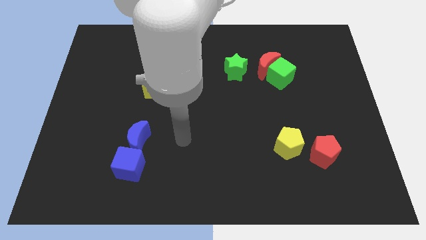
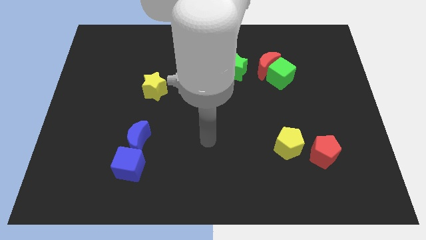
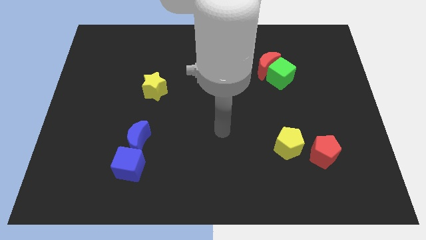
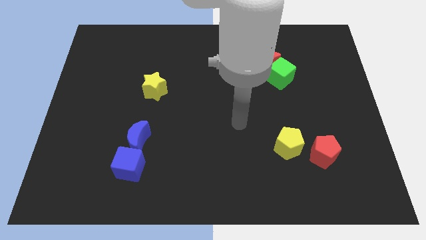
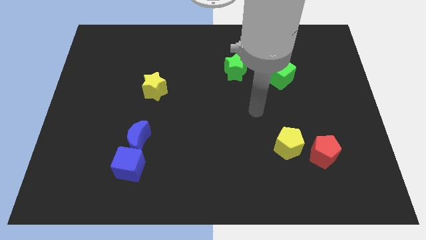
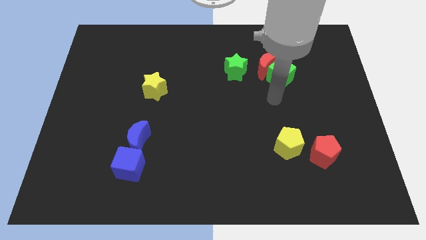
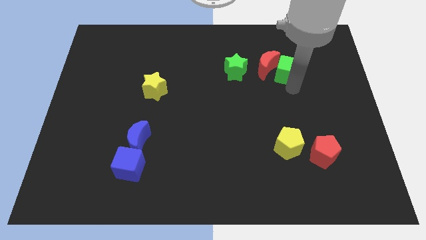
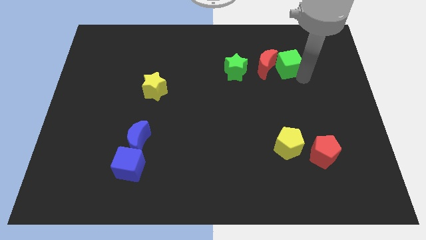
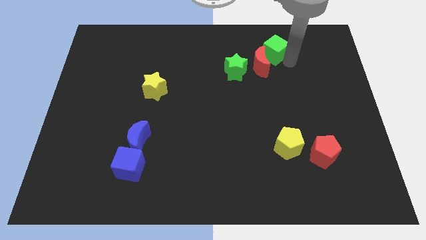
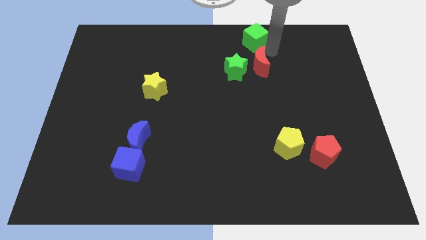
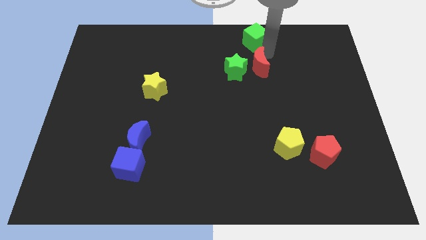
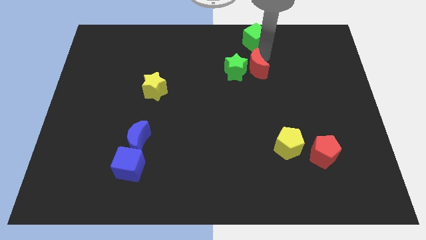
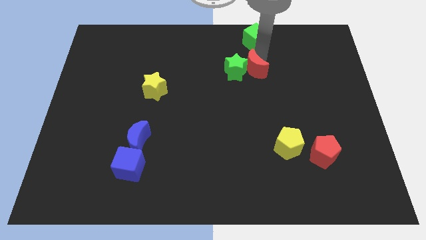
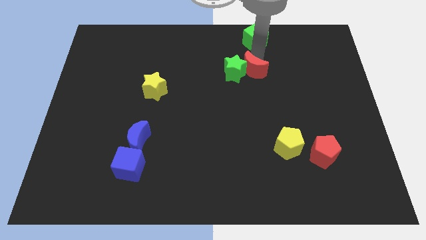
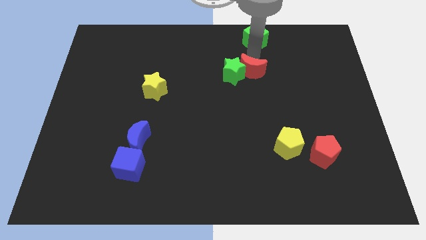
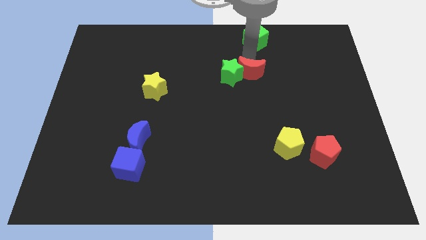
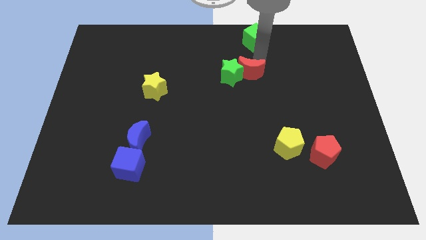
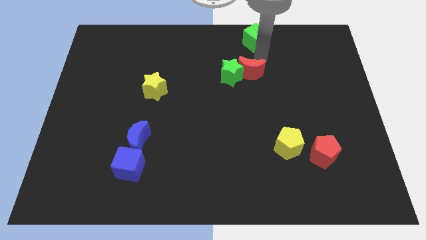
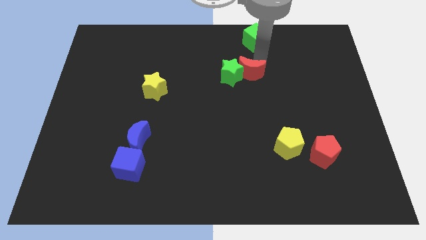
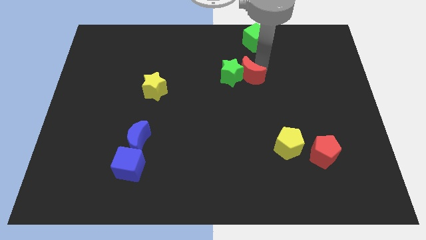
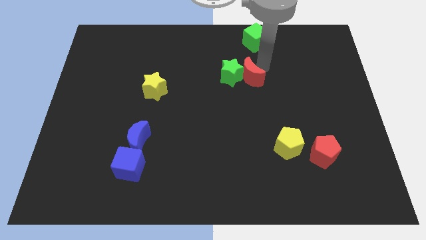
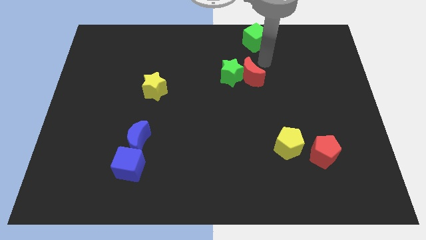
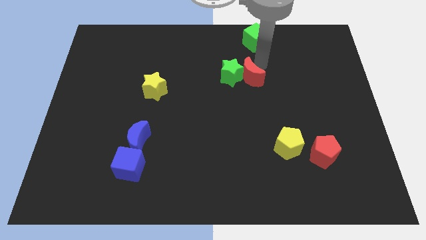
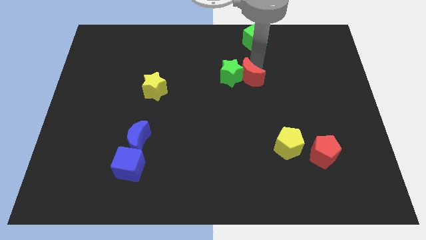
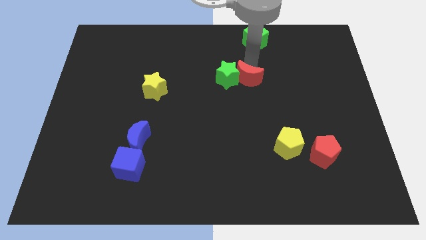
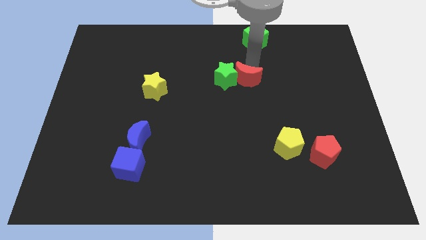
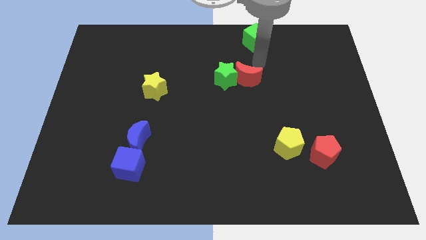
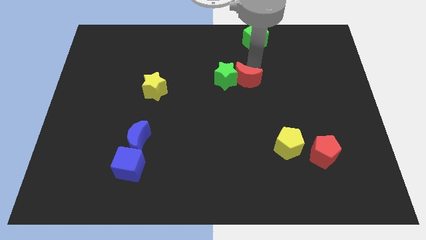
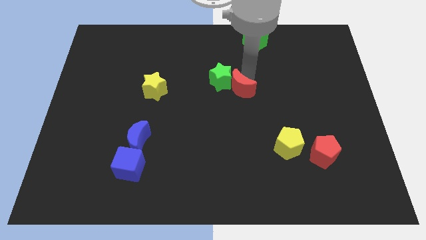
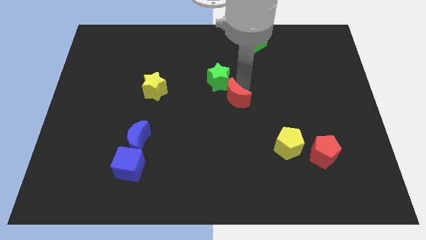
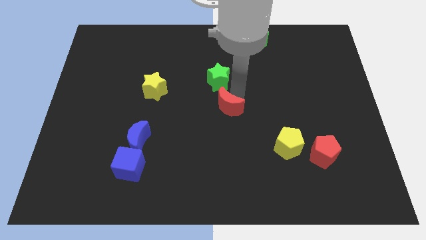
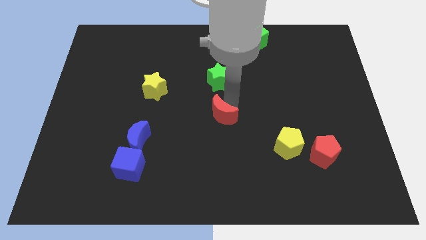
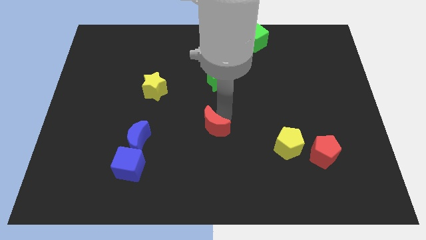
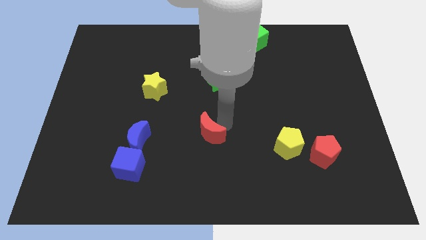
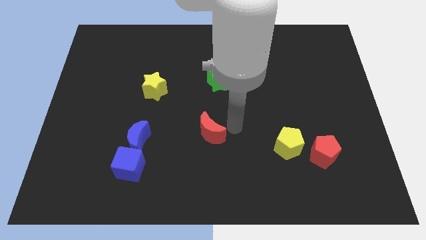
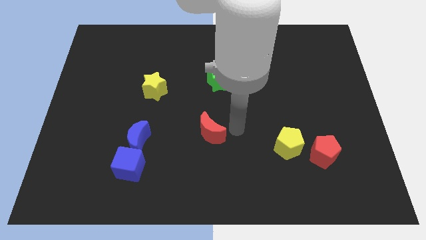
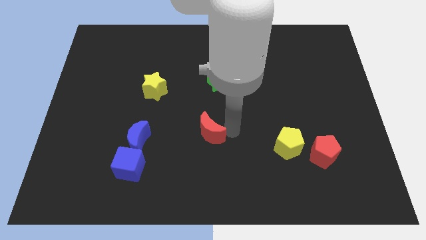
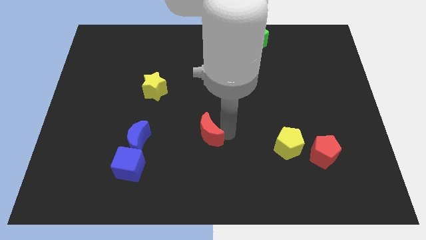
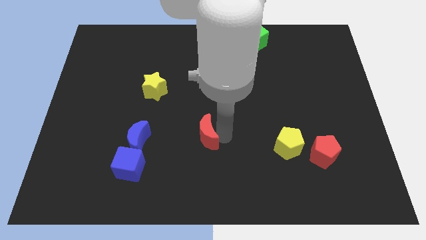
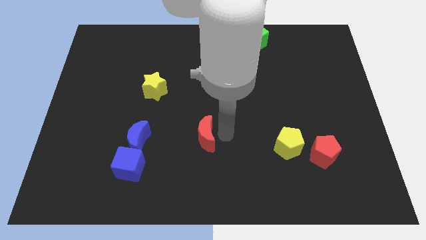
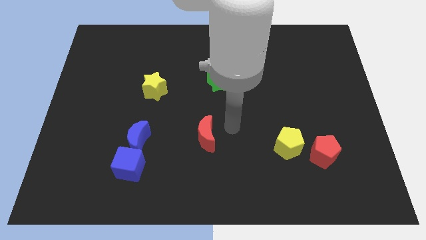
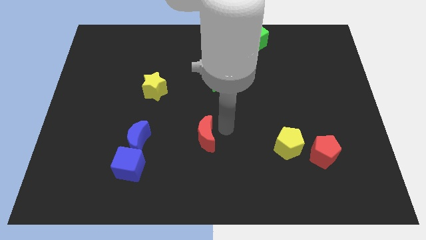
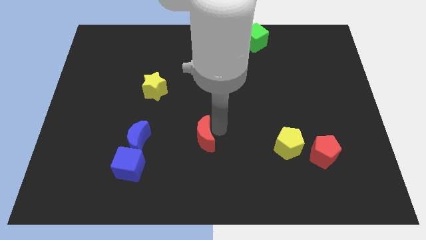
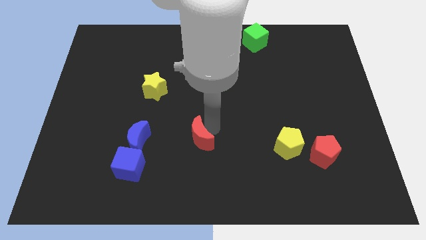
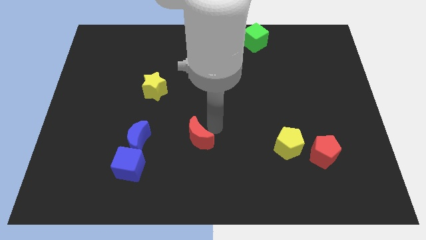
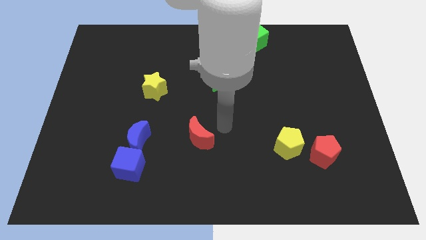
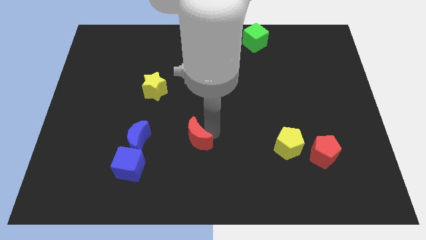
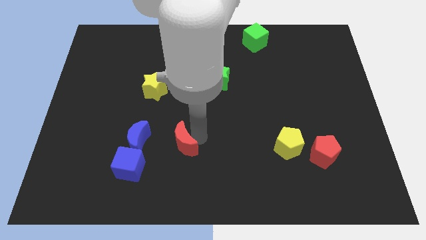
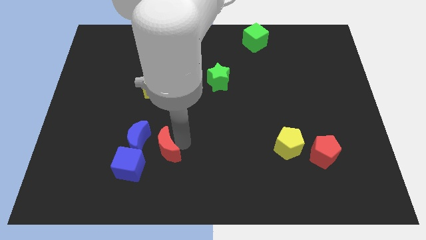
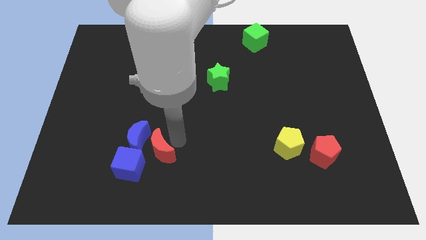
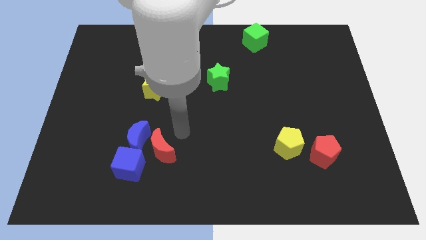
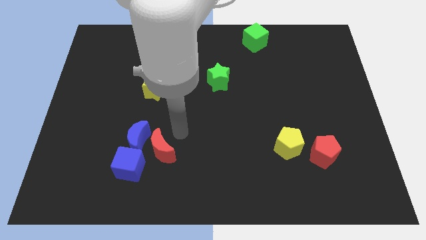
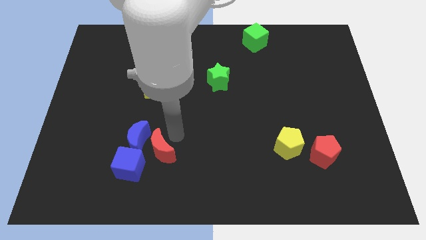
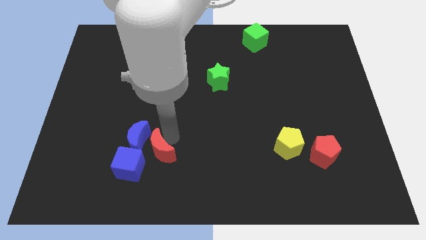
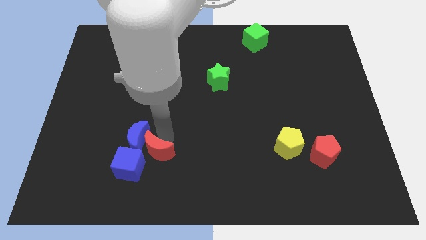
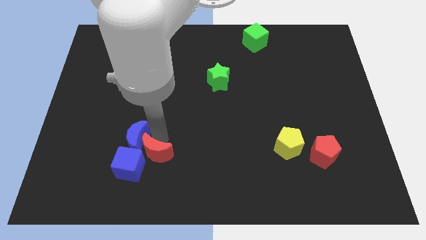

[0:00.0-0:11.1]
put the red moon close to the blue cube
